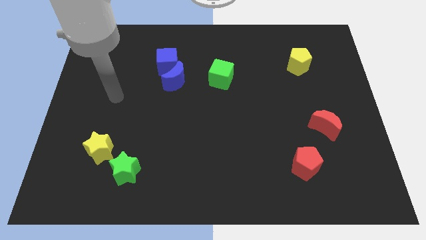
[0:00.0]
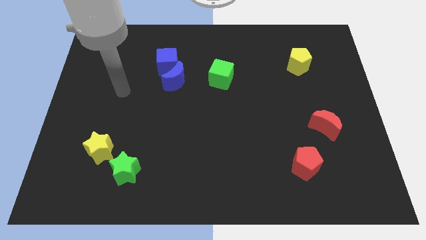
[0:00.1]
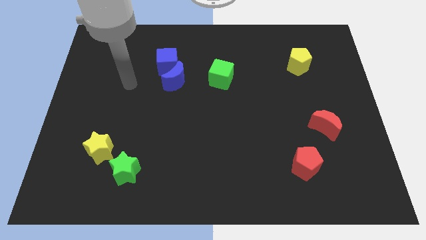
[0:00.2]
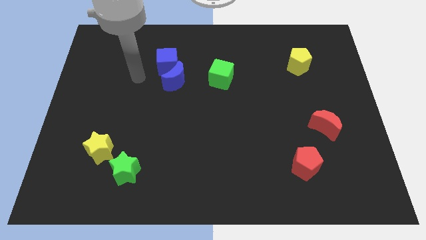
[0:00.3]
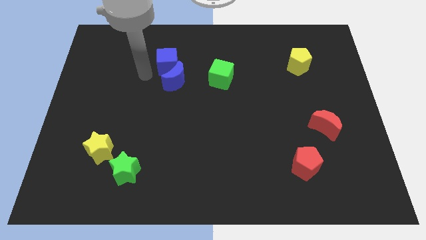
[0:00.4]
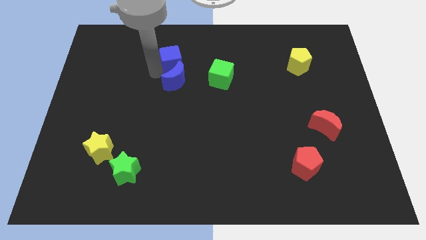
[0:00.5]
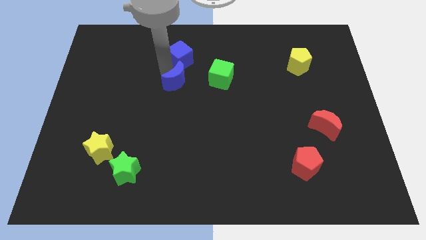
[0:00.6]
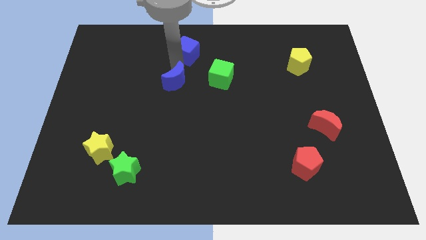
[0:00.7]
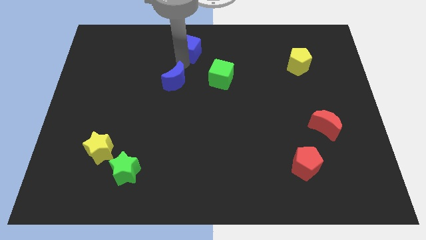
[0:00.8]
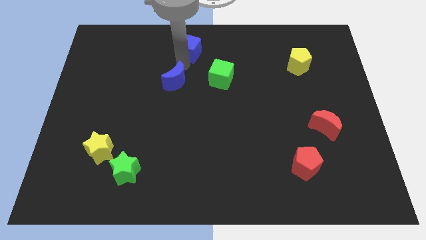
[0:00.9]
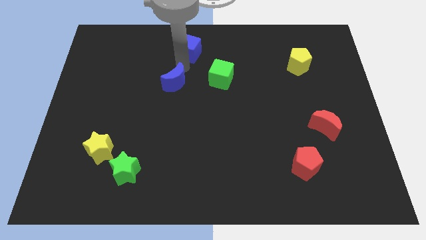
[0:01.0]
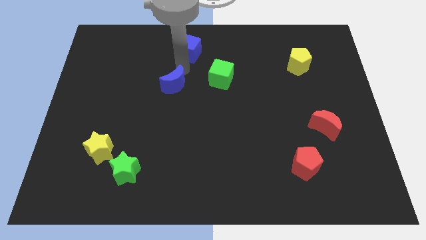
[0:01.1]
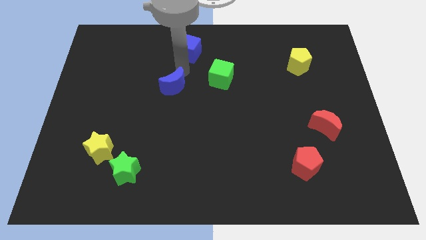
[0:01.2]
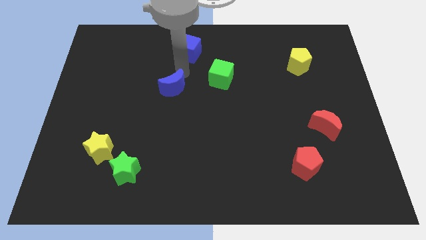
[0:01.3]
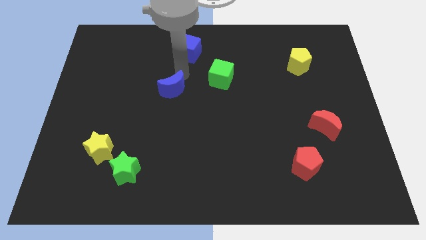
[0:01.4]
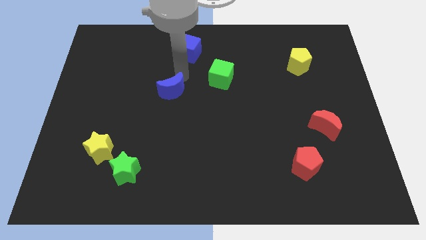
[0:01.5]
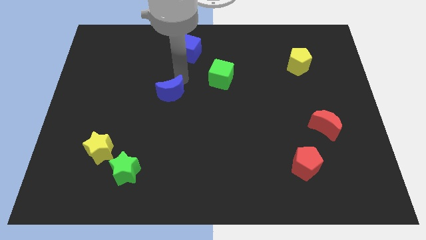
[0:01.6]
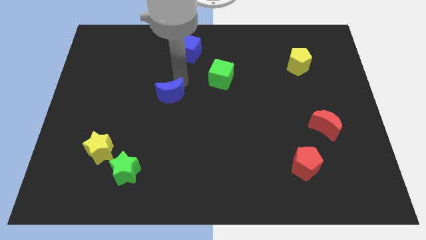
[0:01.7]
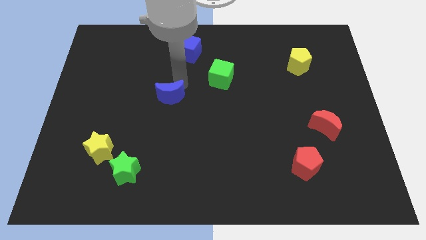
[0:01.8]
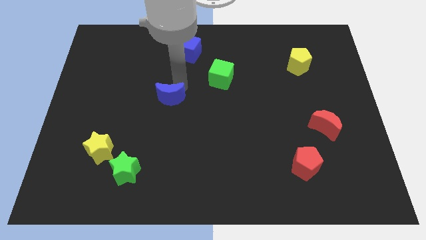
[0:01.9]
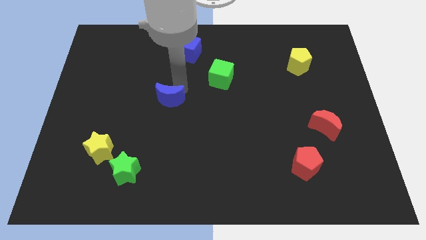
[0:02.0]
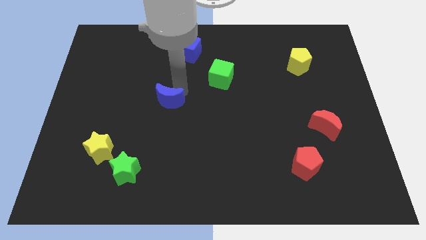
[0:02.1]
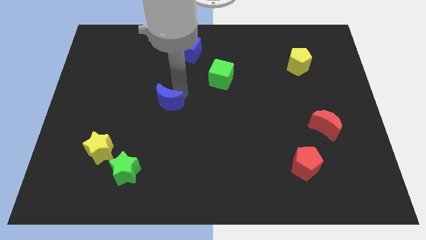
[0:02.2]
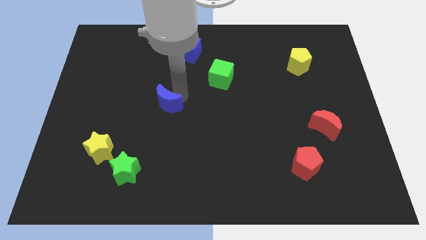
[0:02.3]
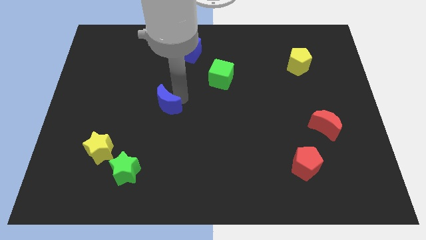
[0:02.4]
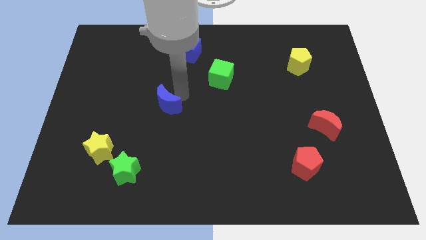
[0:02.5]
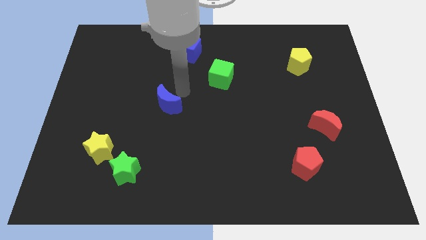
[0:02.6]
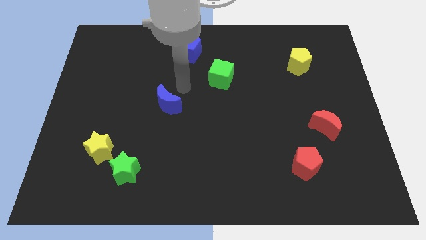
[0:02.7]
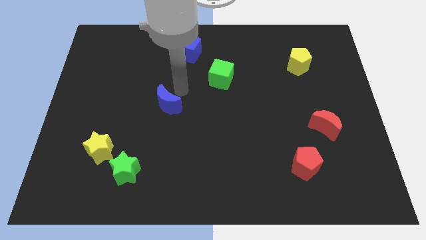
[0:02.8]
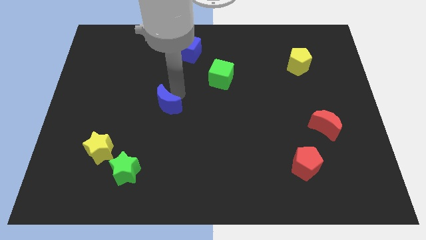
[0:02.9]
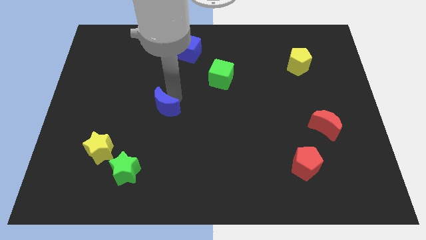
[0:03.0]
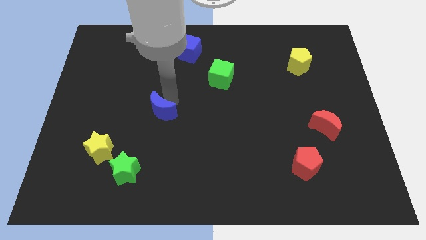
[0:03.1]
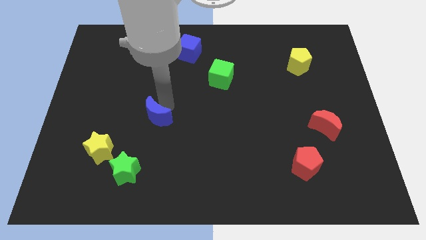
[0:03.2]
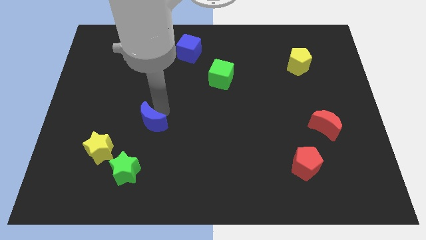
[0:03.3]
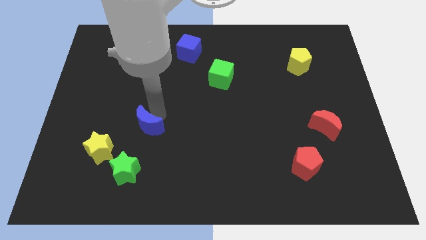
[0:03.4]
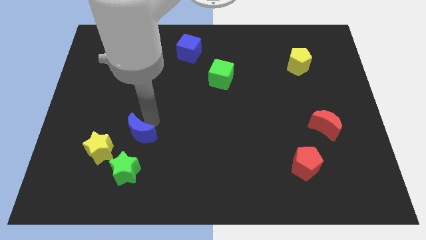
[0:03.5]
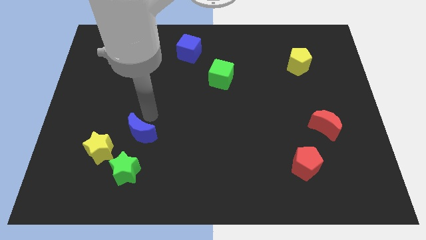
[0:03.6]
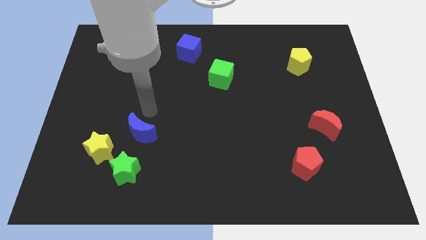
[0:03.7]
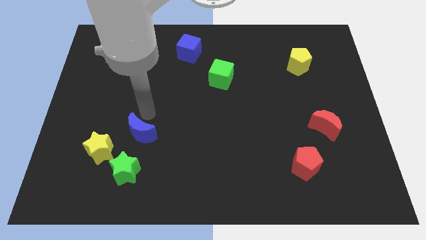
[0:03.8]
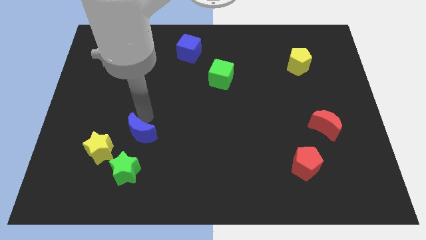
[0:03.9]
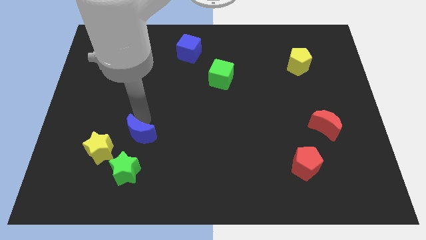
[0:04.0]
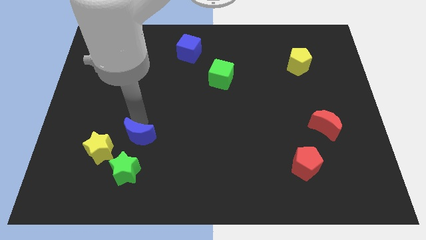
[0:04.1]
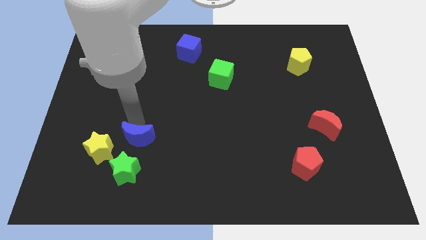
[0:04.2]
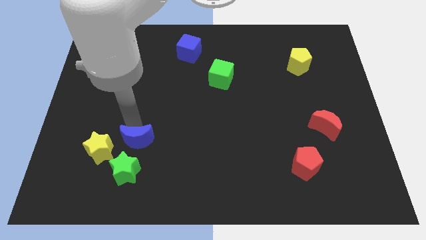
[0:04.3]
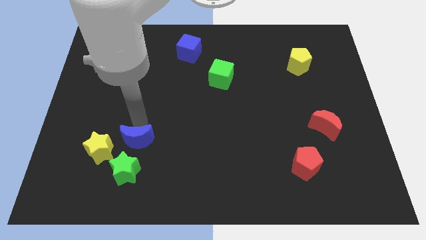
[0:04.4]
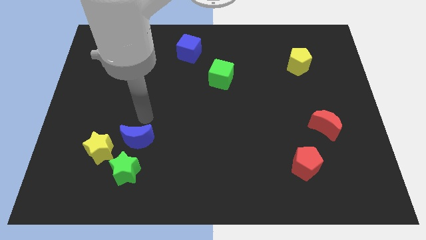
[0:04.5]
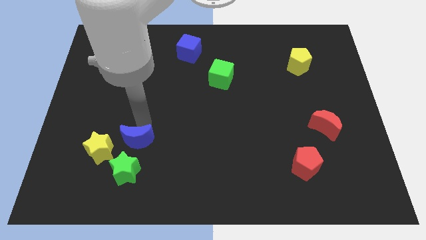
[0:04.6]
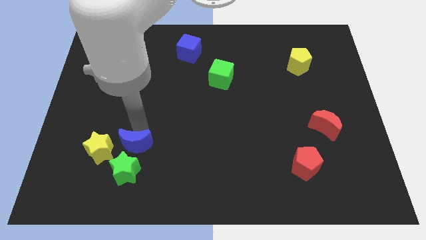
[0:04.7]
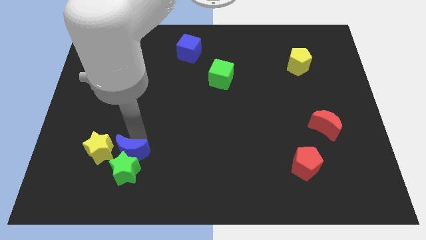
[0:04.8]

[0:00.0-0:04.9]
move the blue moon next to the green star

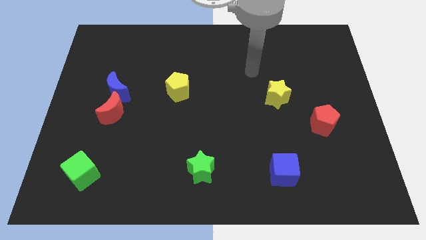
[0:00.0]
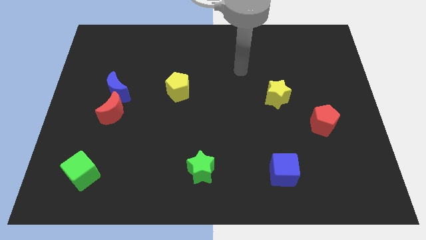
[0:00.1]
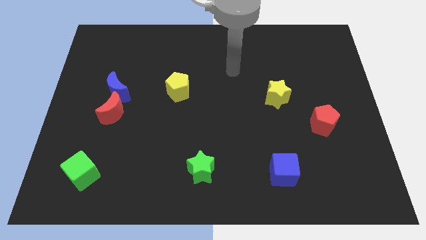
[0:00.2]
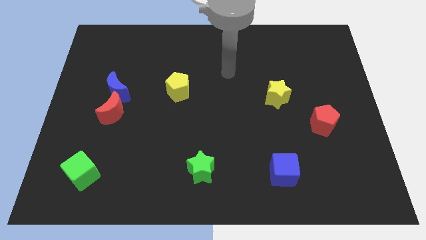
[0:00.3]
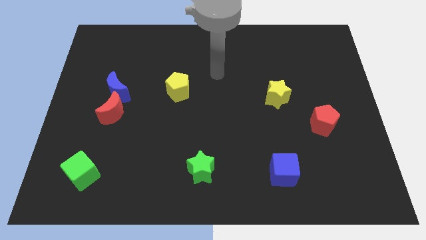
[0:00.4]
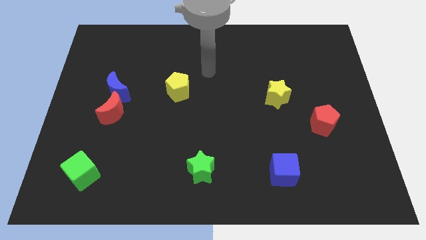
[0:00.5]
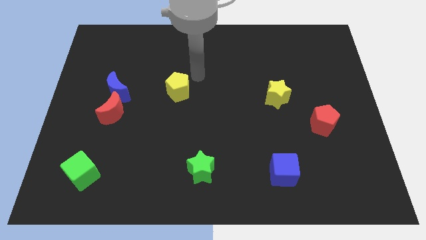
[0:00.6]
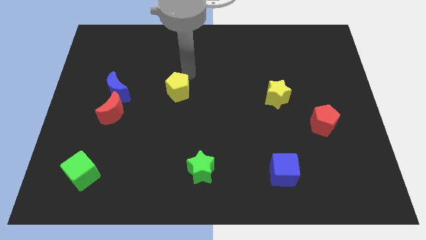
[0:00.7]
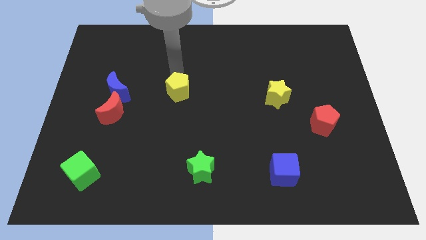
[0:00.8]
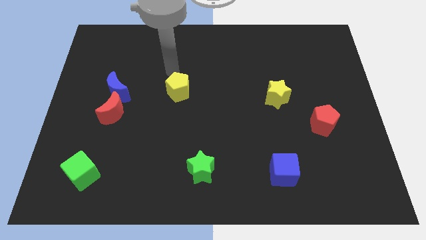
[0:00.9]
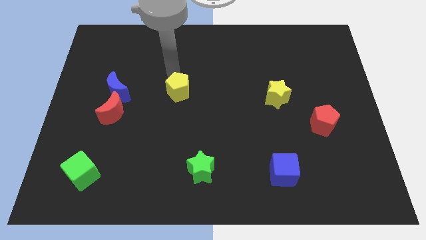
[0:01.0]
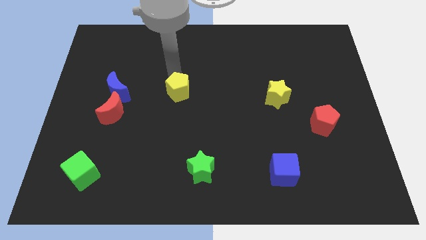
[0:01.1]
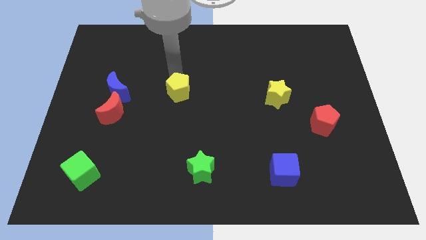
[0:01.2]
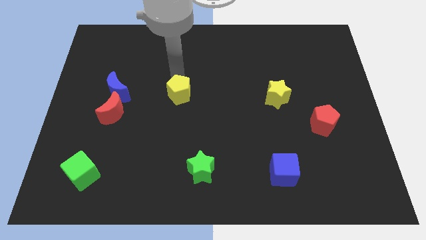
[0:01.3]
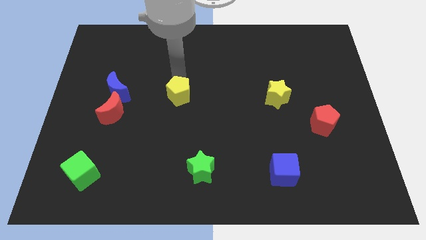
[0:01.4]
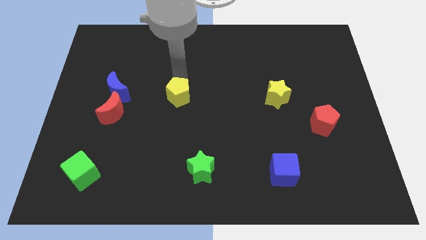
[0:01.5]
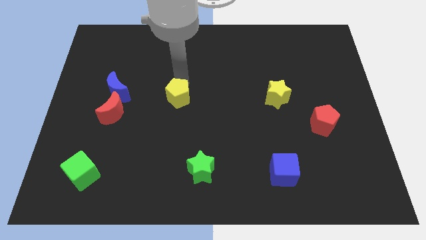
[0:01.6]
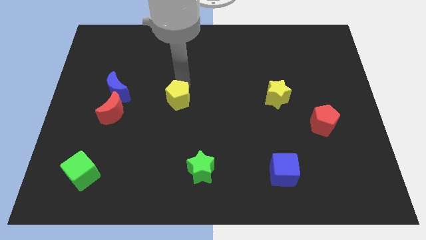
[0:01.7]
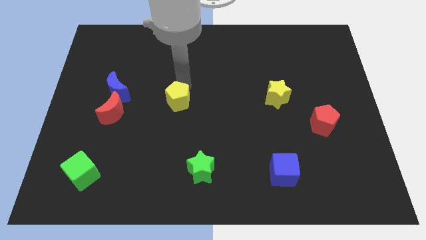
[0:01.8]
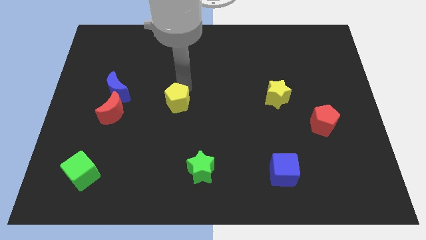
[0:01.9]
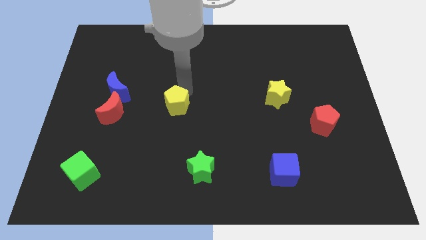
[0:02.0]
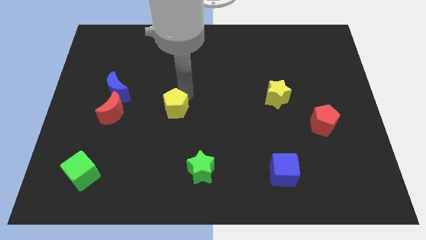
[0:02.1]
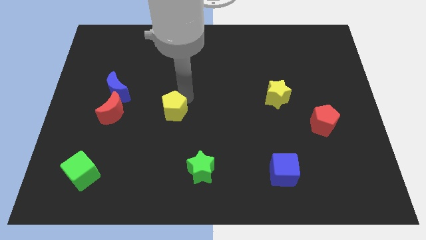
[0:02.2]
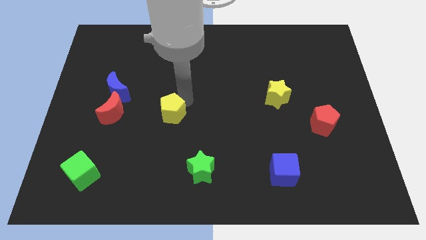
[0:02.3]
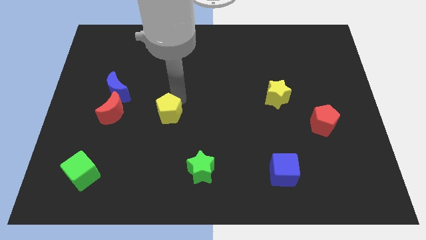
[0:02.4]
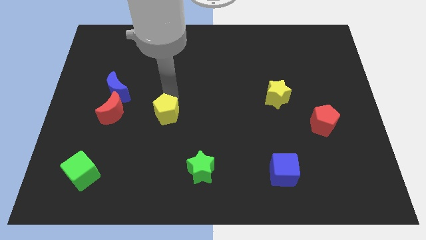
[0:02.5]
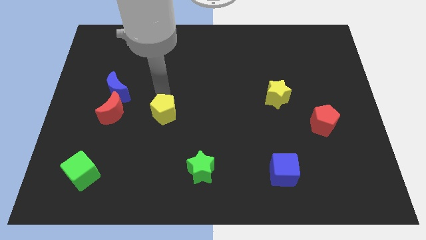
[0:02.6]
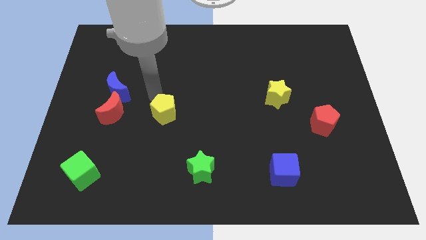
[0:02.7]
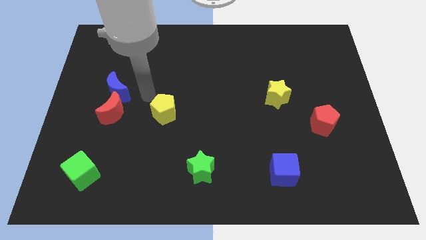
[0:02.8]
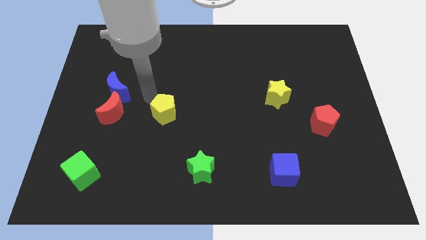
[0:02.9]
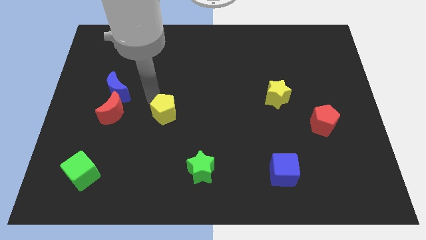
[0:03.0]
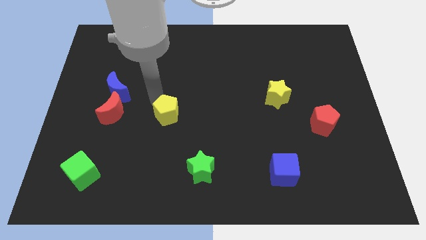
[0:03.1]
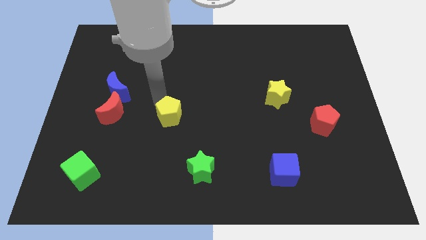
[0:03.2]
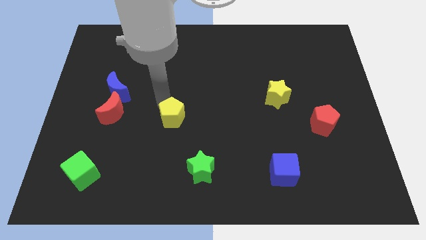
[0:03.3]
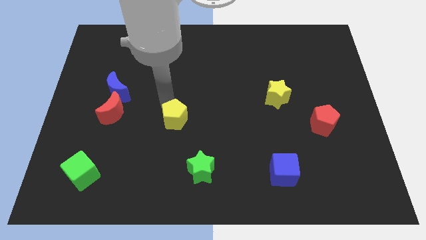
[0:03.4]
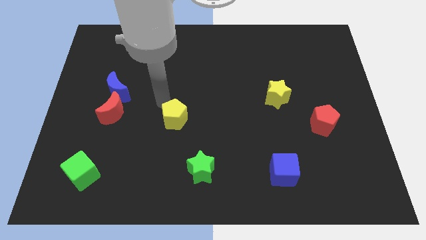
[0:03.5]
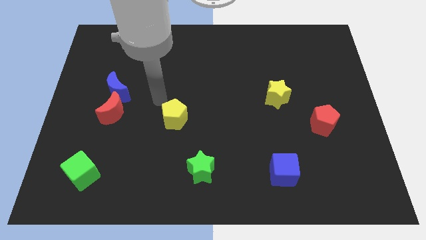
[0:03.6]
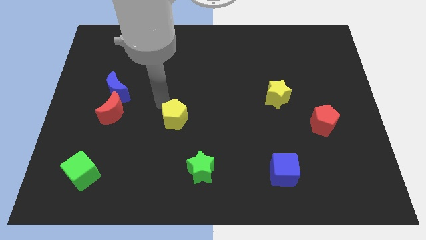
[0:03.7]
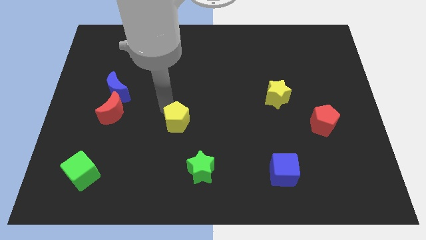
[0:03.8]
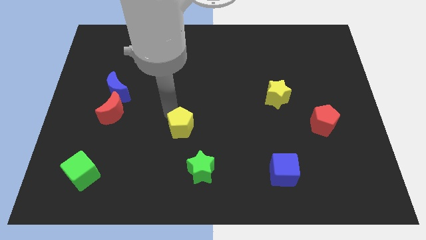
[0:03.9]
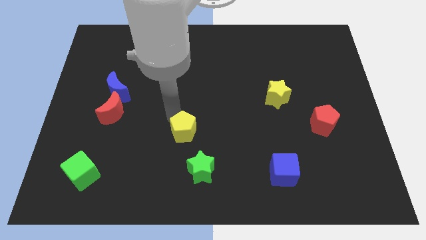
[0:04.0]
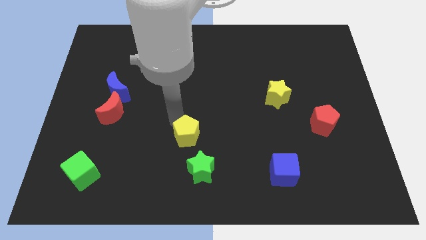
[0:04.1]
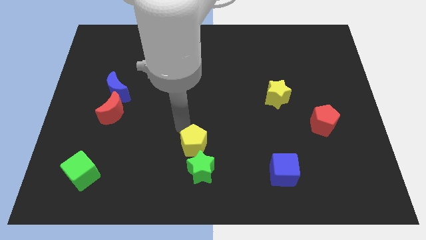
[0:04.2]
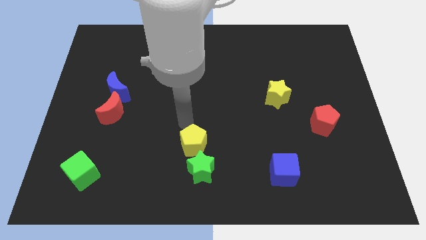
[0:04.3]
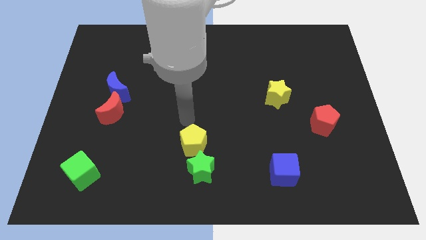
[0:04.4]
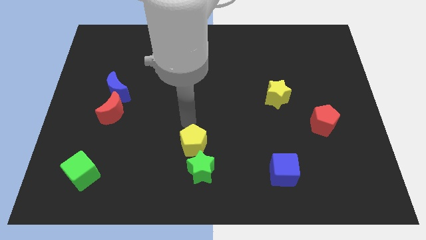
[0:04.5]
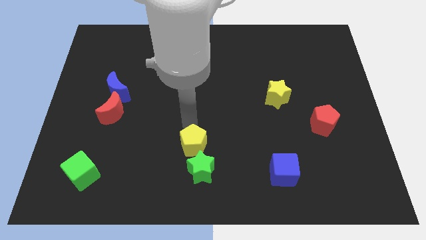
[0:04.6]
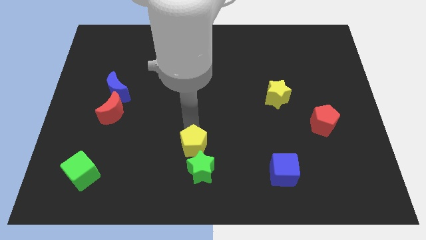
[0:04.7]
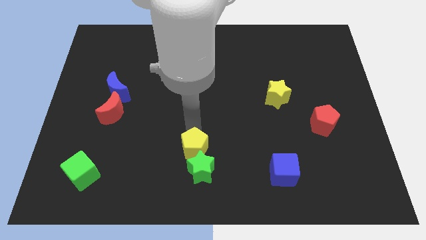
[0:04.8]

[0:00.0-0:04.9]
push the yellow pentagon towards the green star
